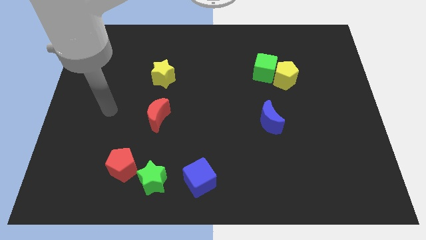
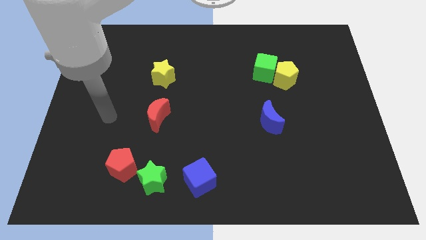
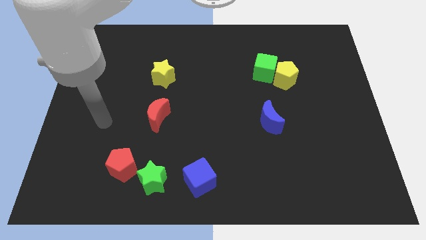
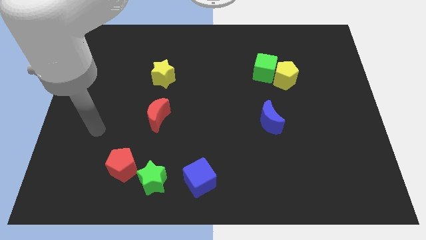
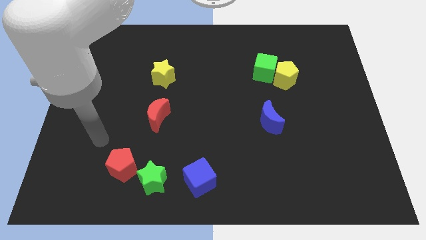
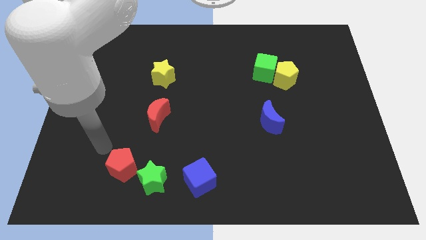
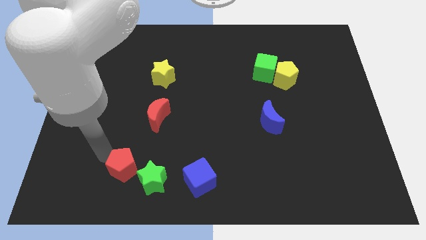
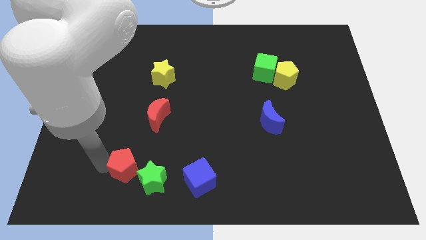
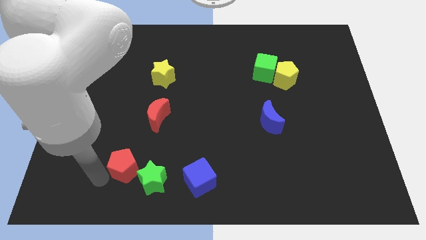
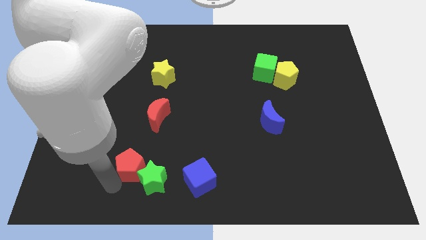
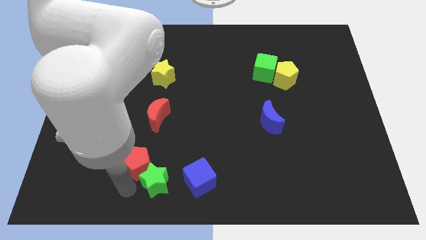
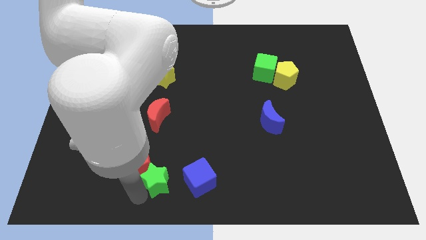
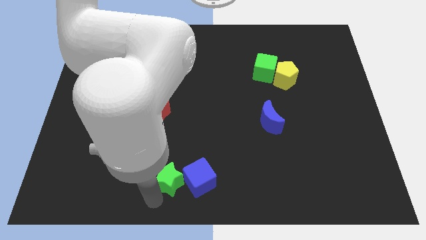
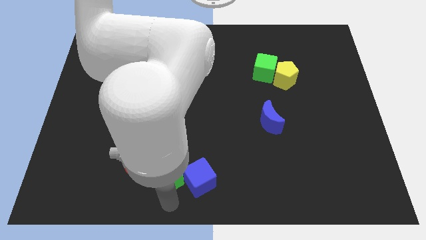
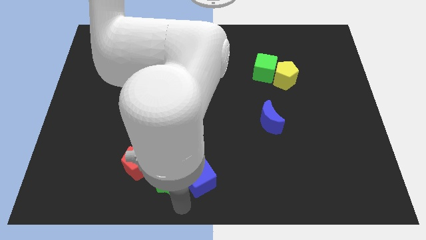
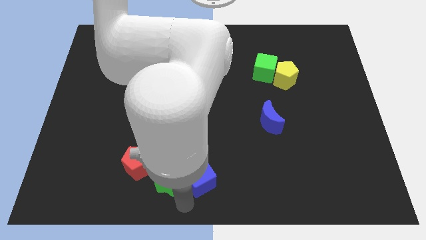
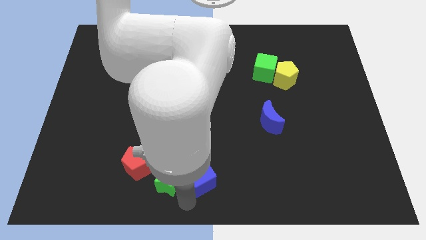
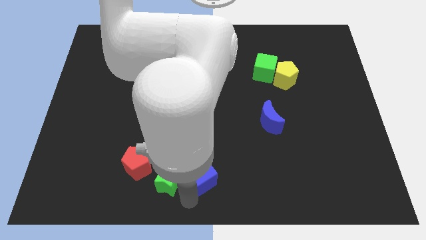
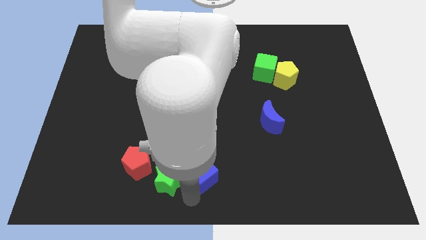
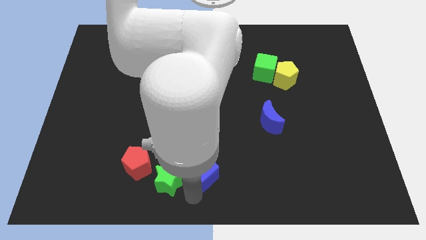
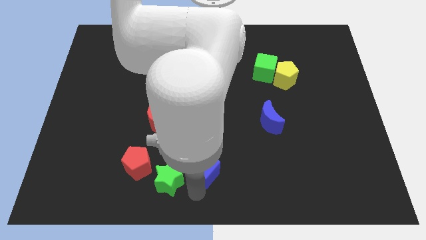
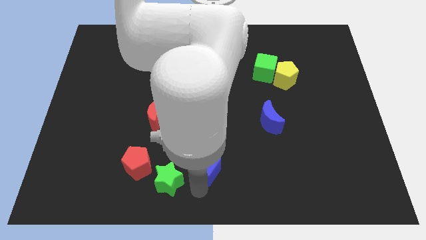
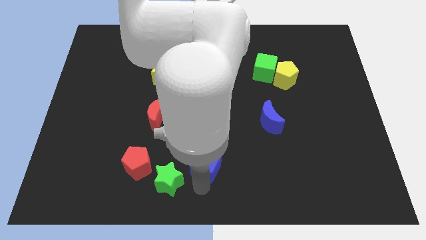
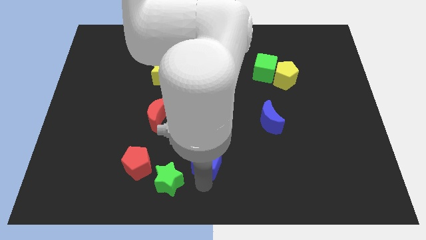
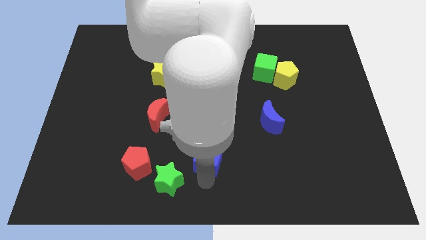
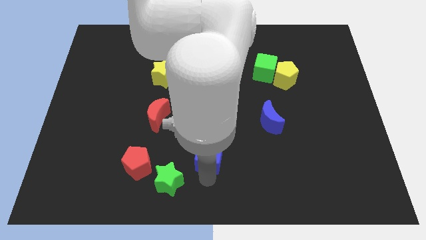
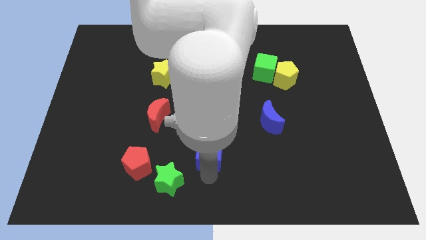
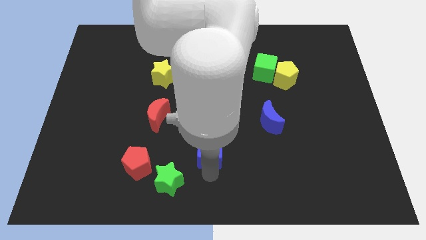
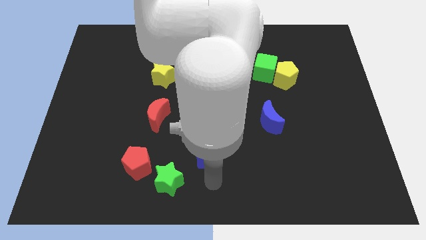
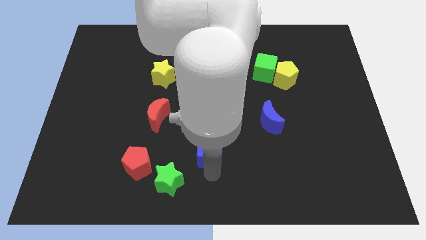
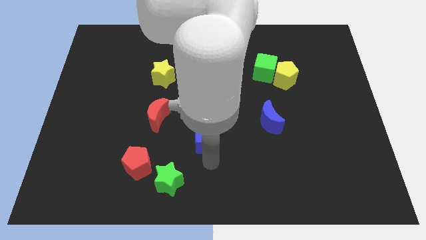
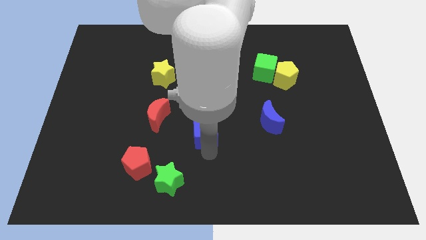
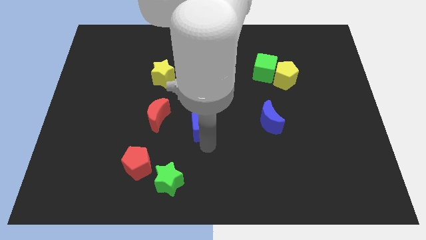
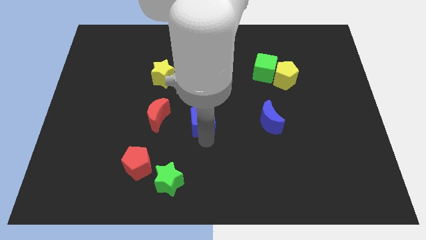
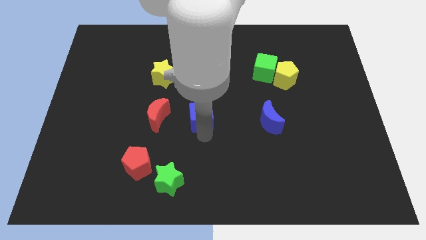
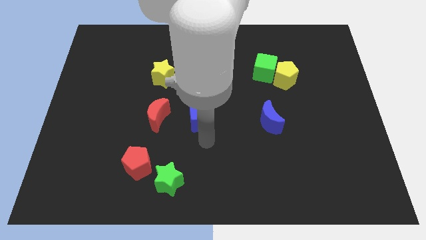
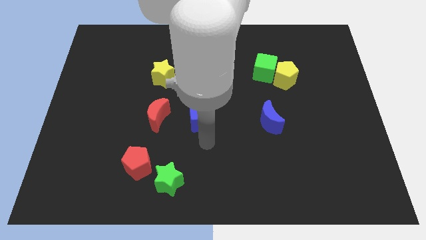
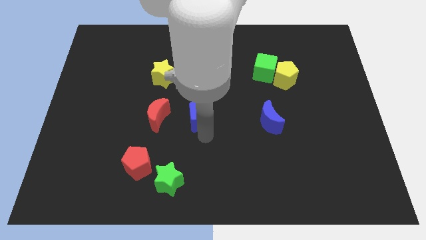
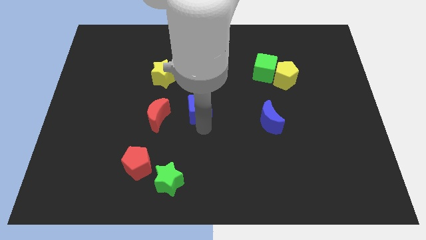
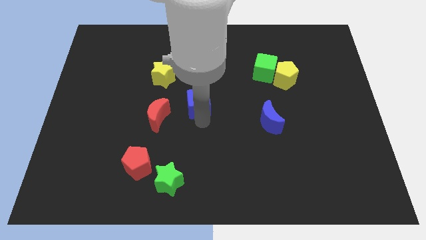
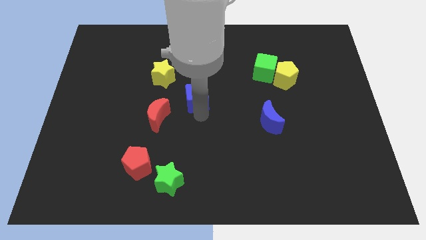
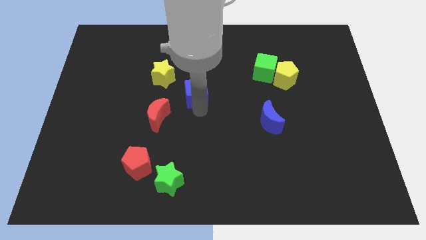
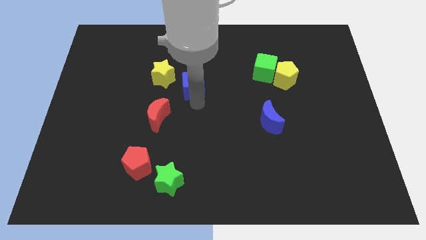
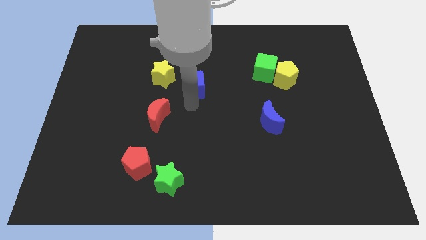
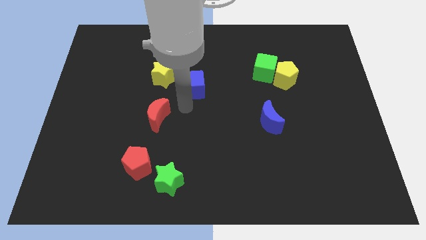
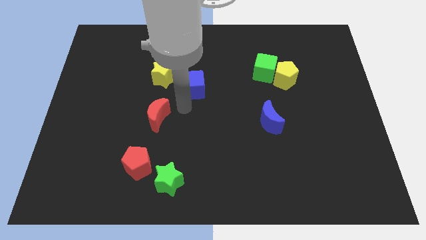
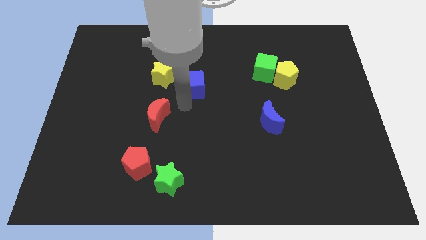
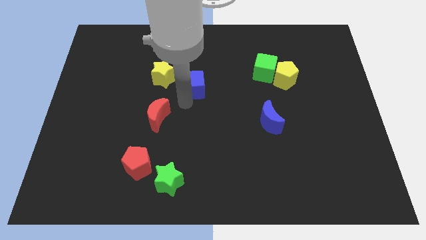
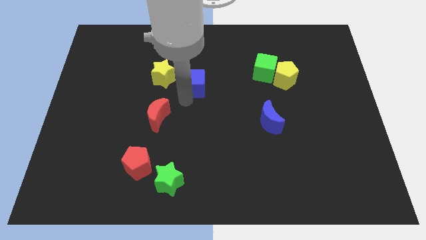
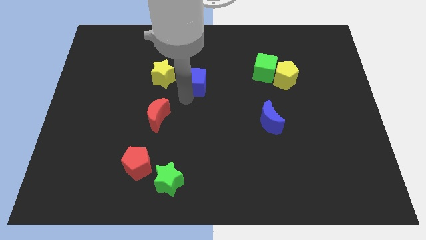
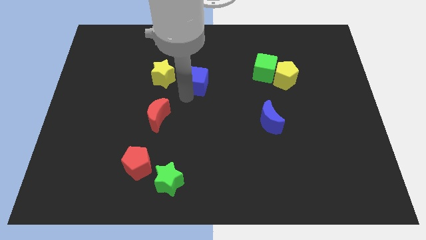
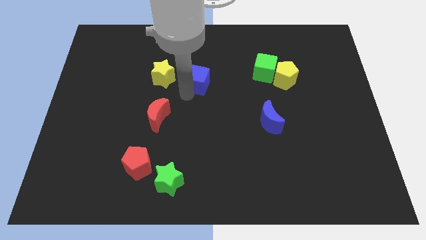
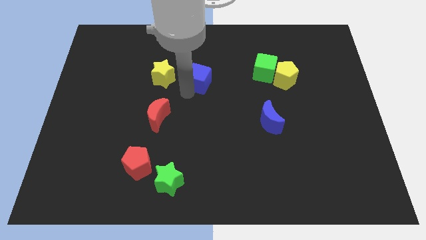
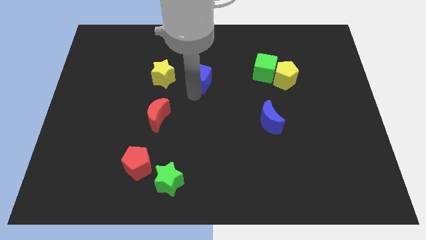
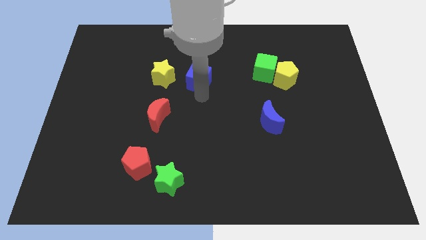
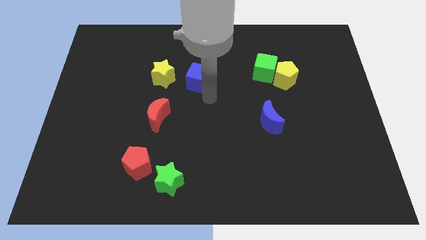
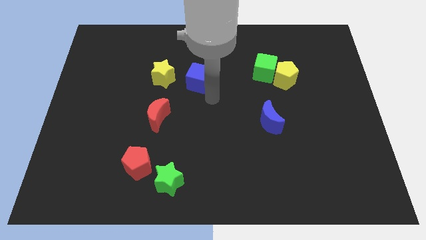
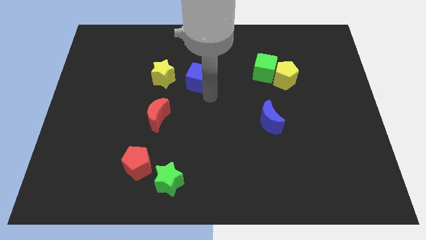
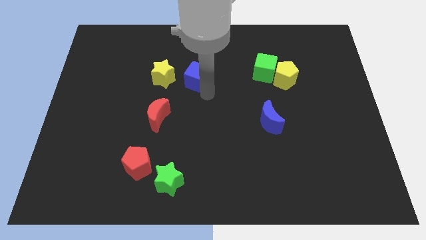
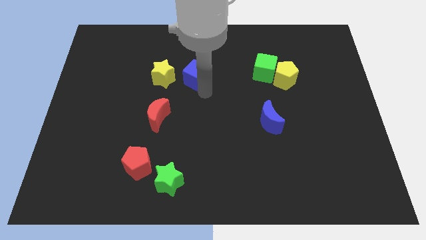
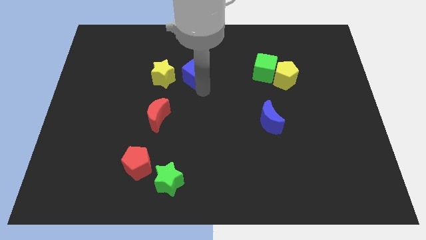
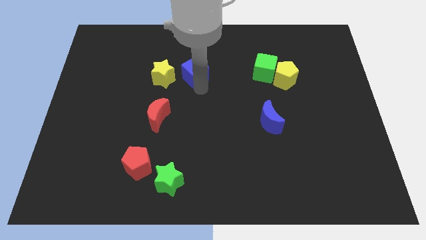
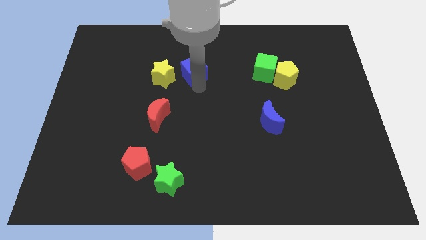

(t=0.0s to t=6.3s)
slide the blue cube to the top right side of the yellow star

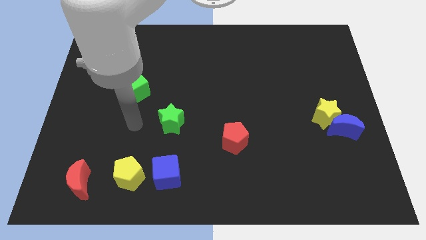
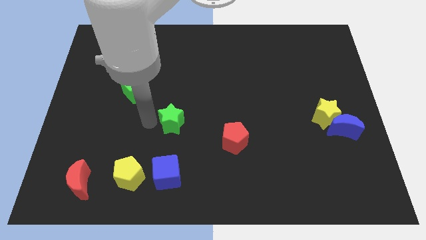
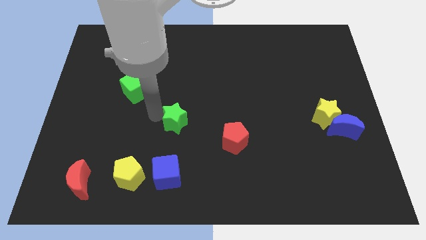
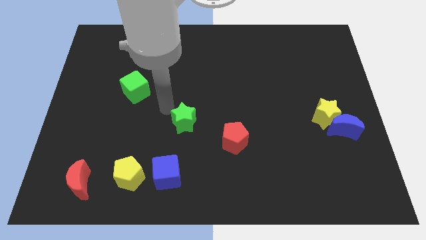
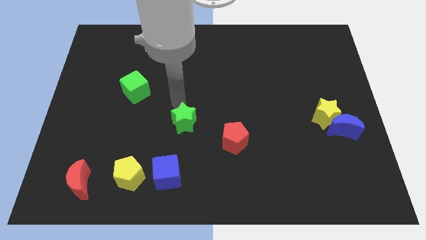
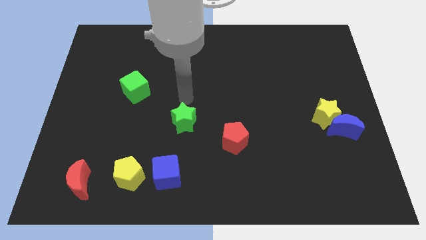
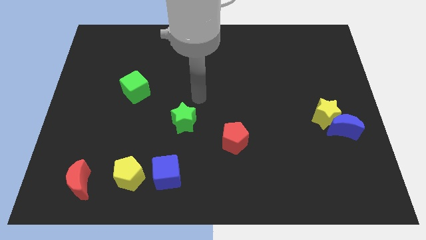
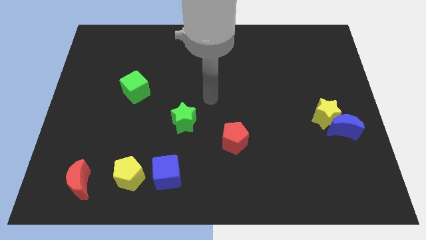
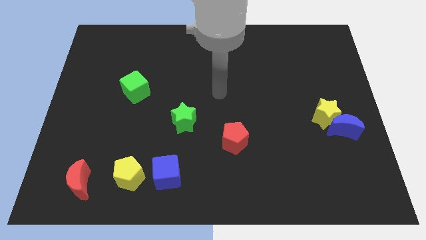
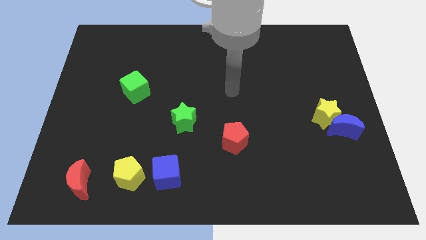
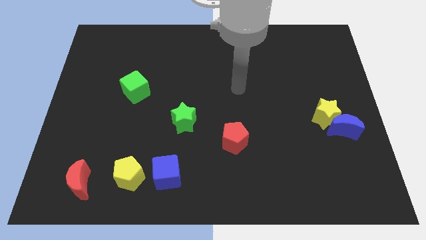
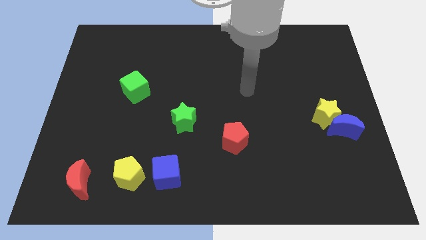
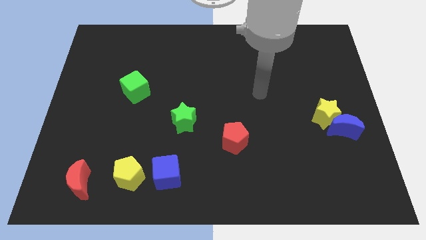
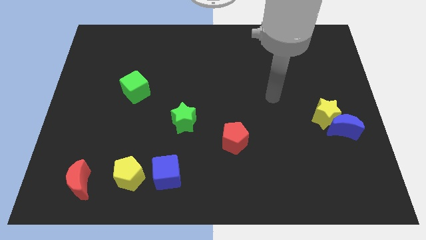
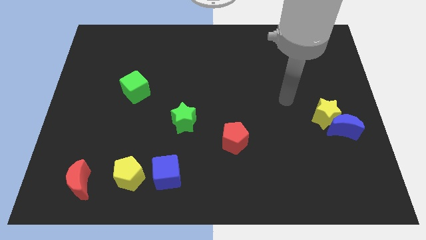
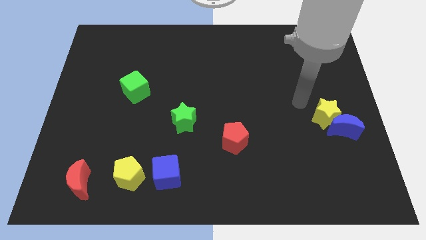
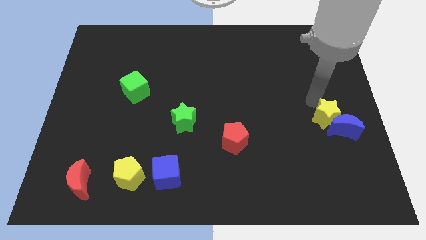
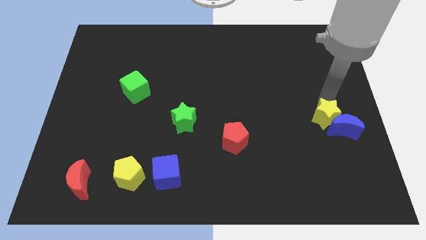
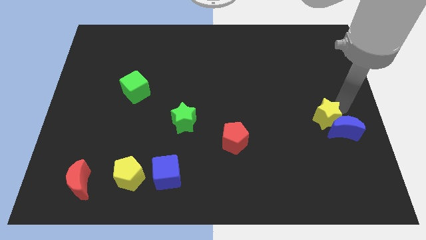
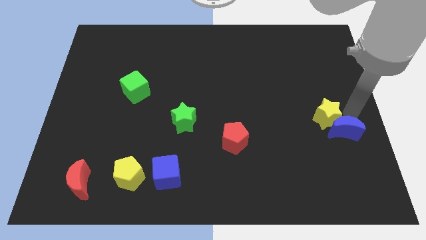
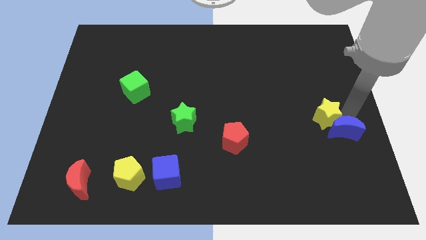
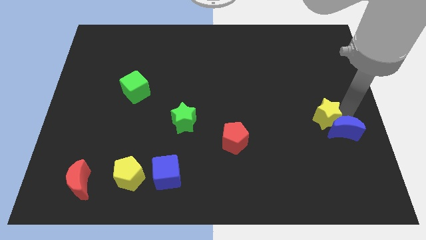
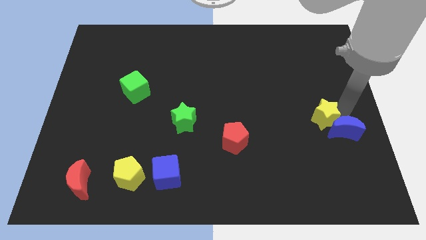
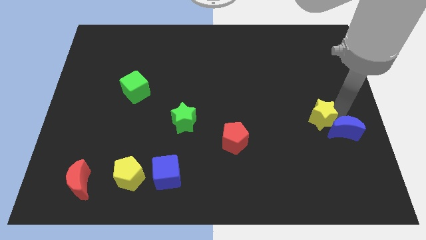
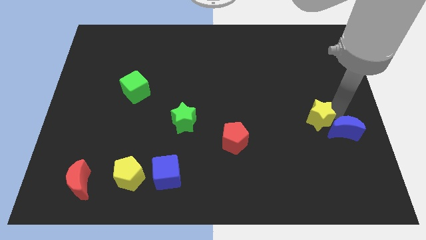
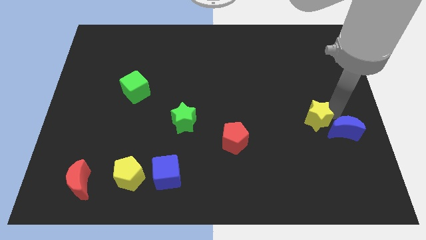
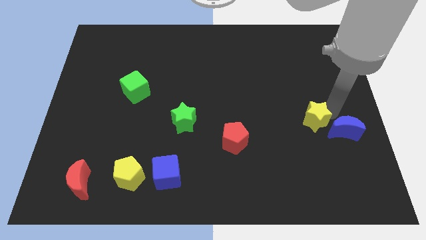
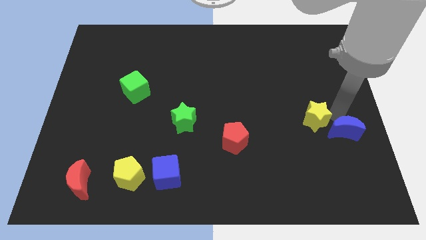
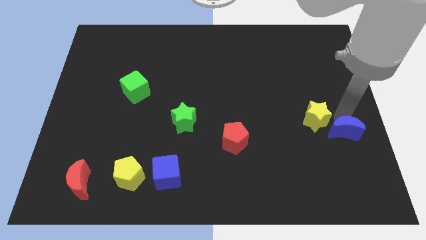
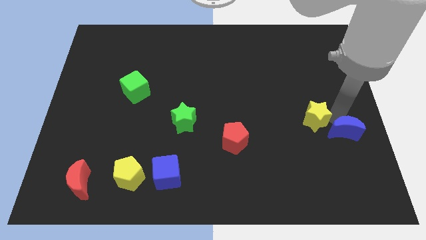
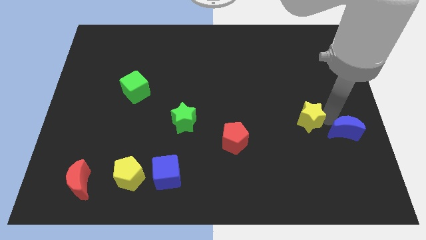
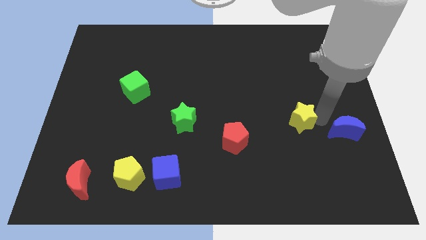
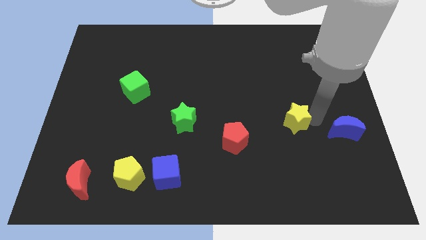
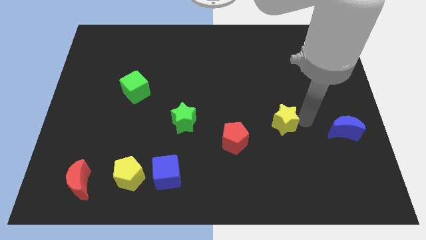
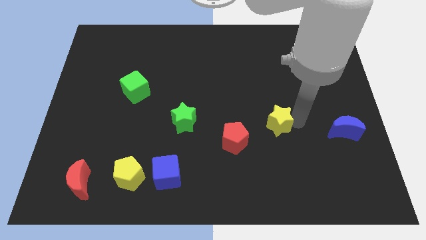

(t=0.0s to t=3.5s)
slide the yellow star to the top right of the red pentagon
